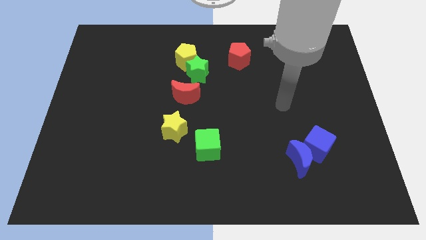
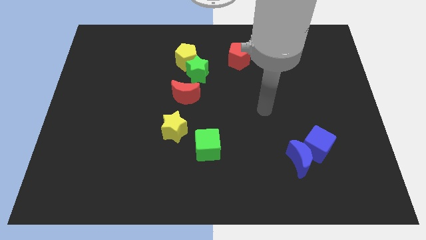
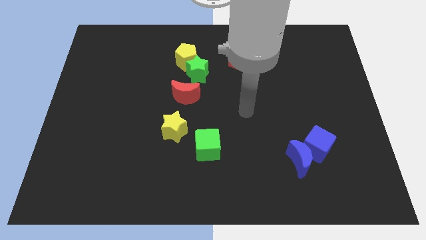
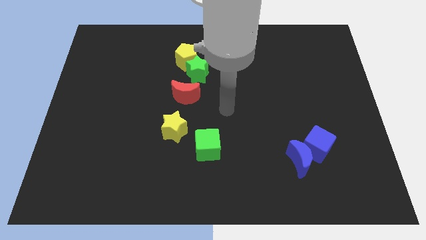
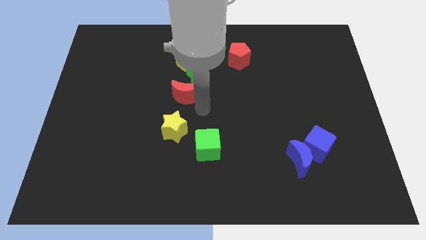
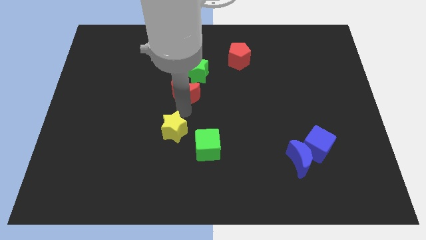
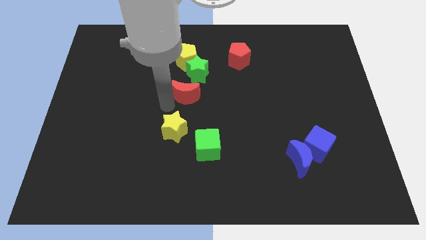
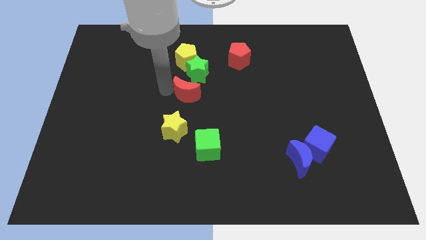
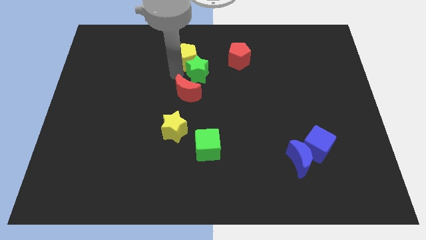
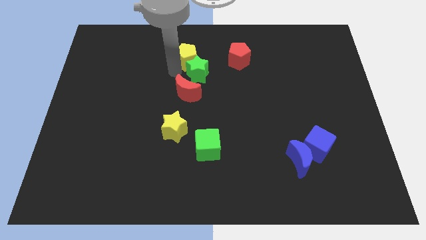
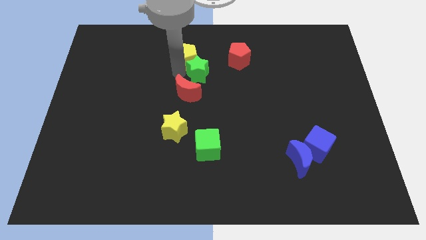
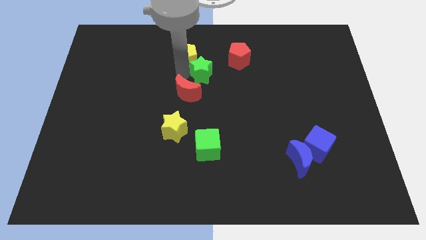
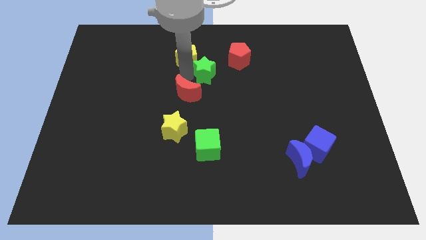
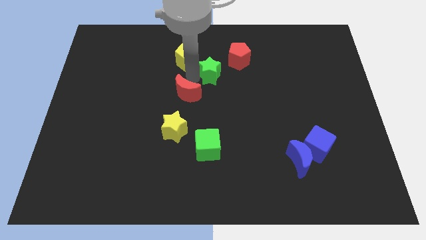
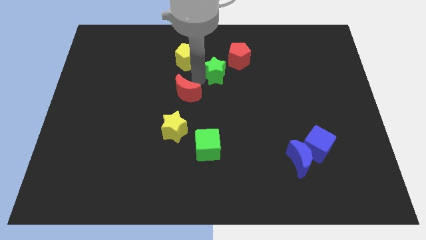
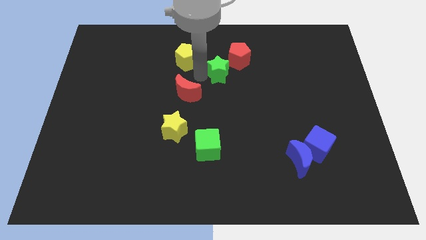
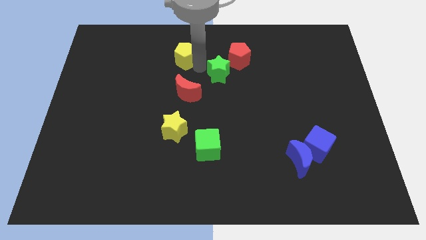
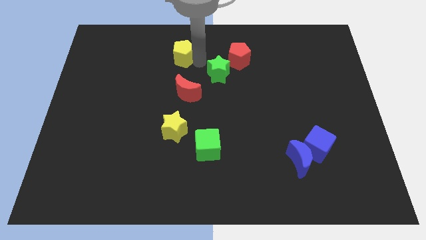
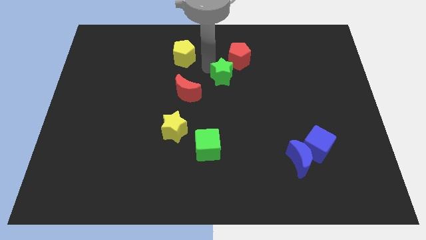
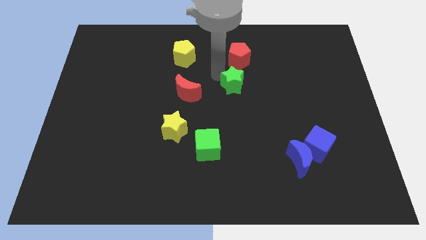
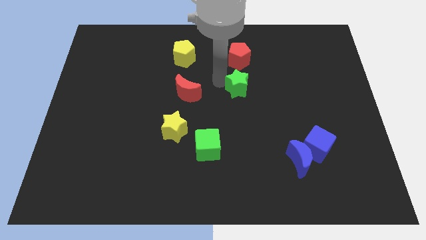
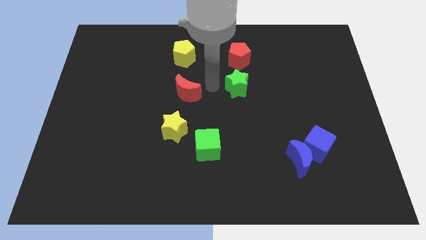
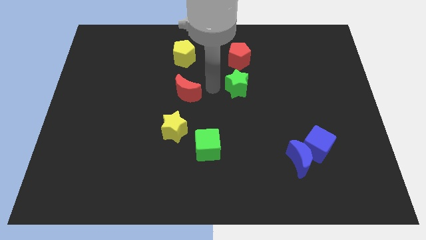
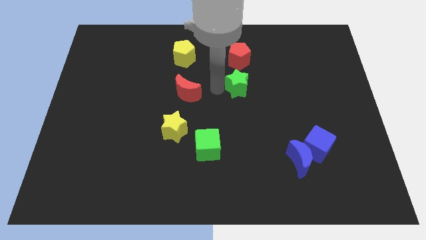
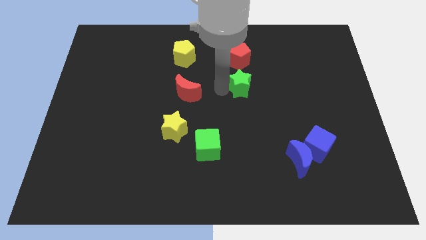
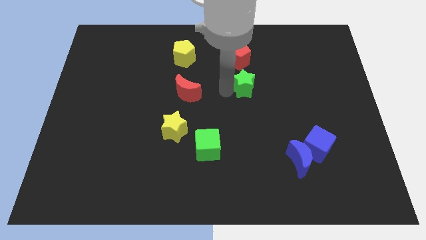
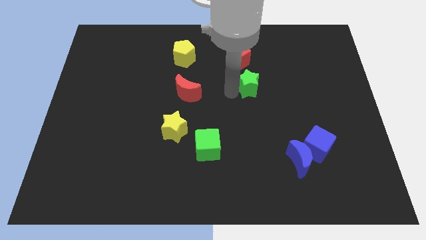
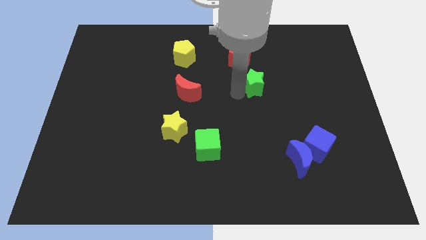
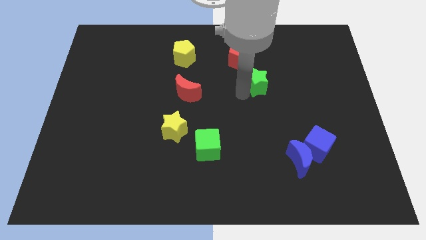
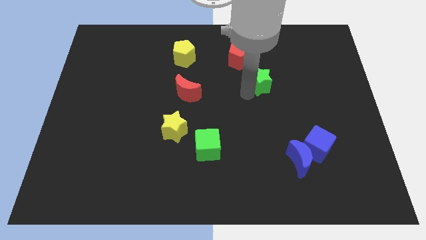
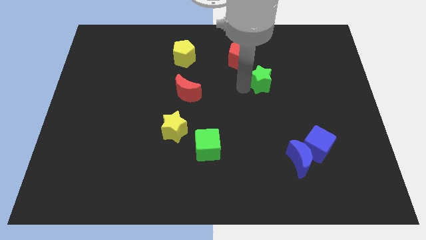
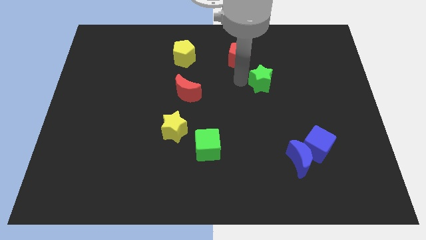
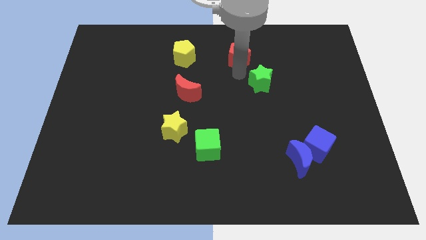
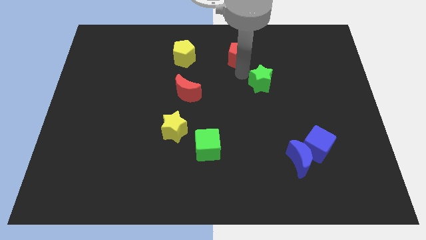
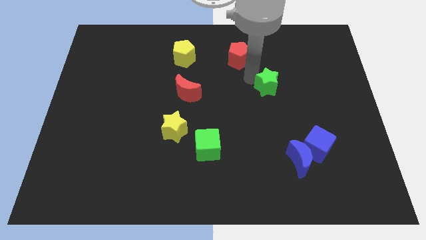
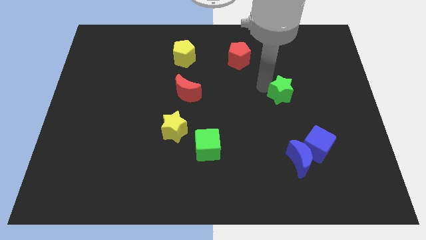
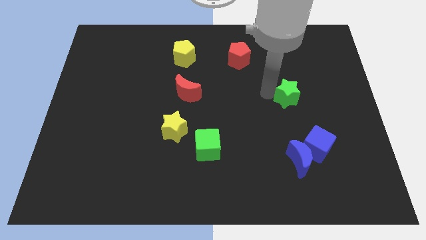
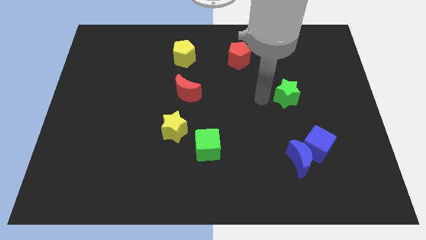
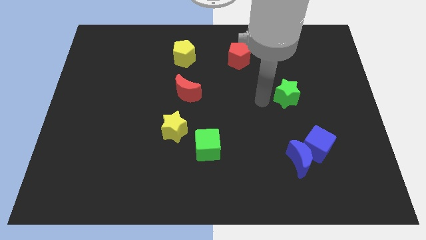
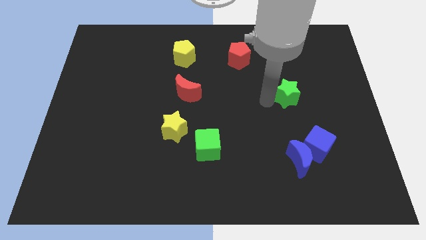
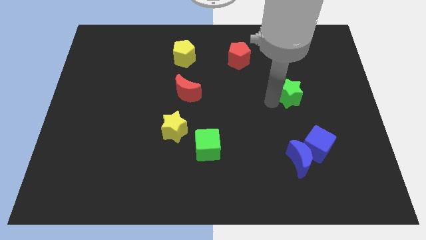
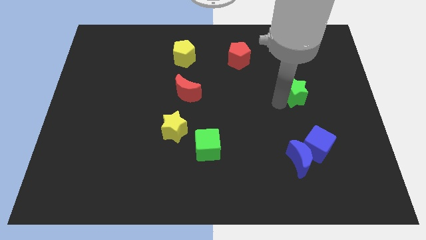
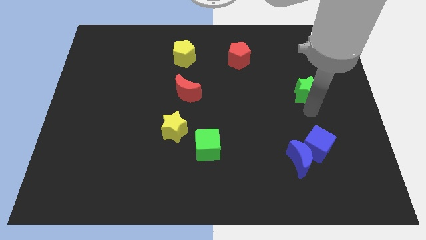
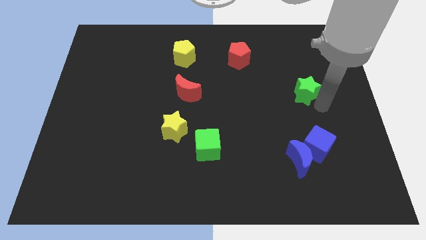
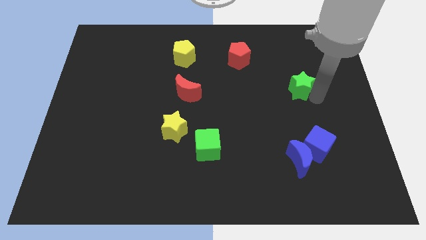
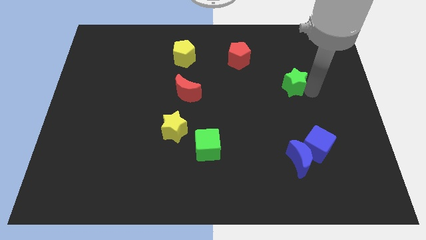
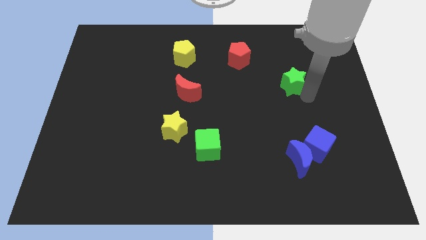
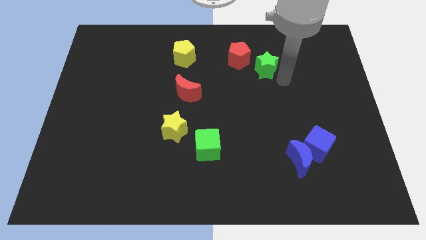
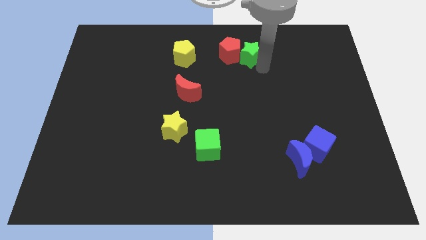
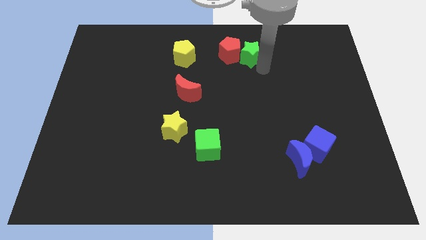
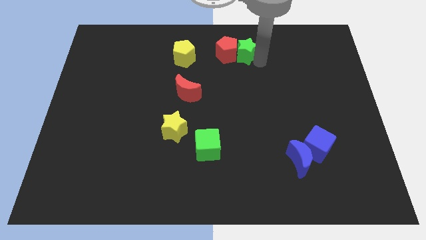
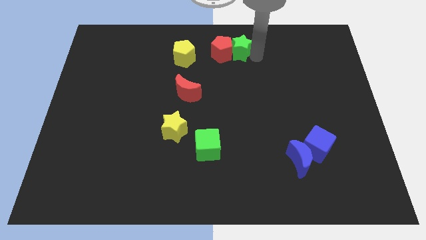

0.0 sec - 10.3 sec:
slide the green star to the towards your base

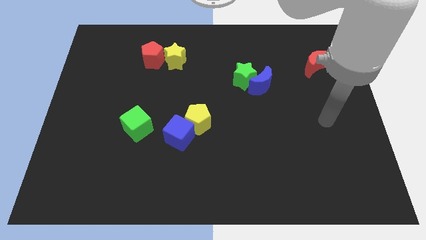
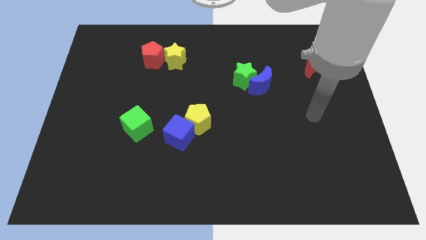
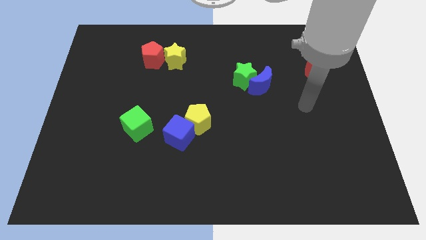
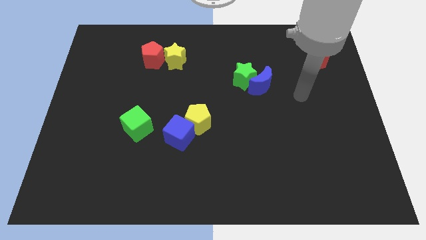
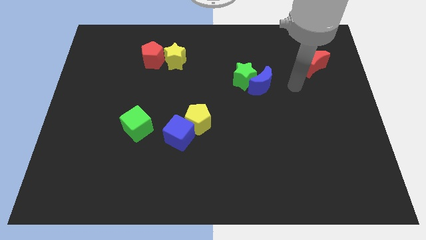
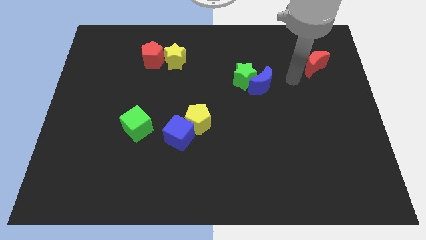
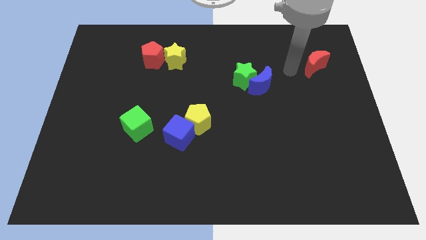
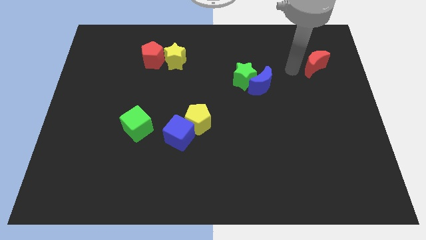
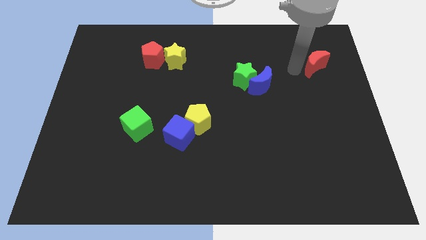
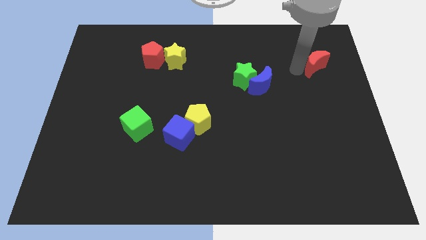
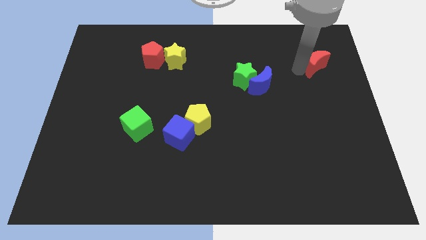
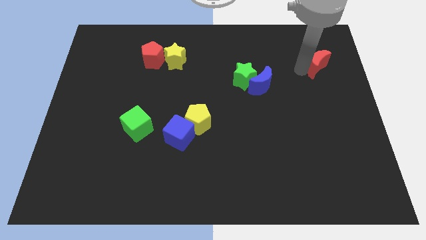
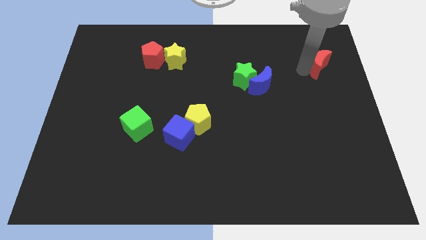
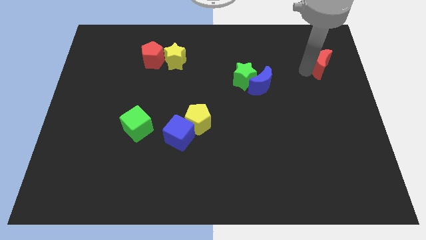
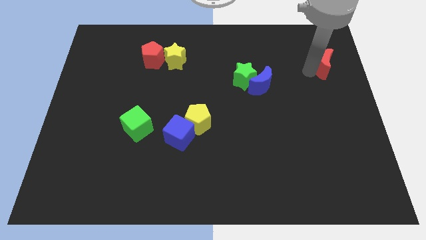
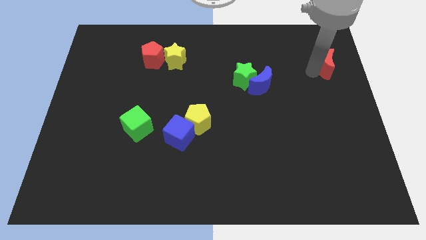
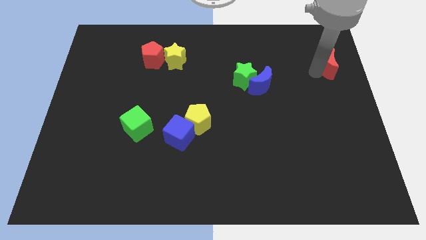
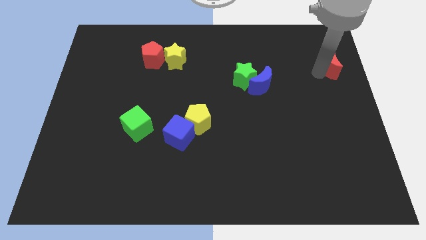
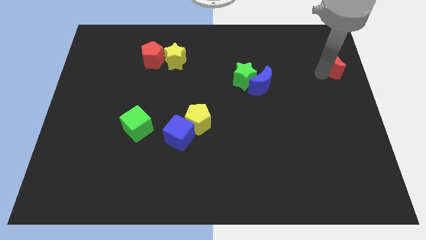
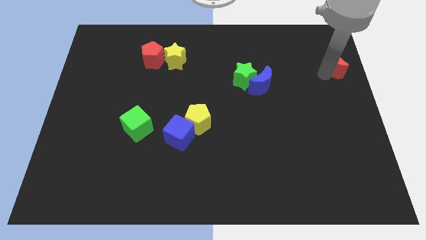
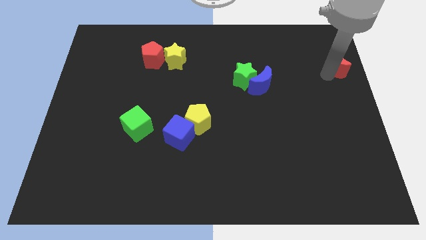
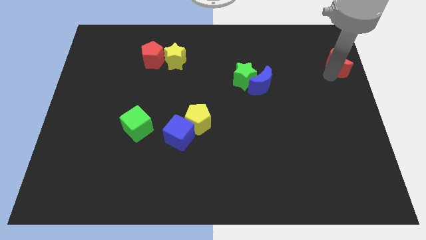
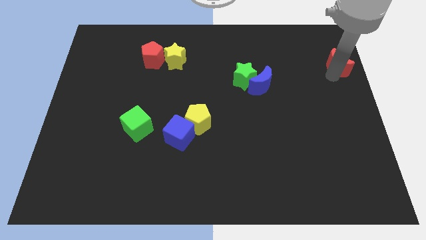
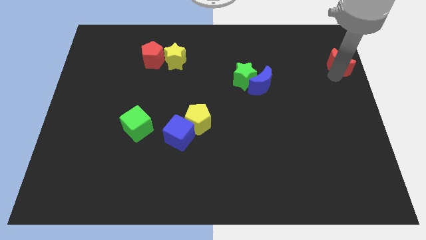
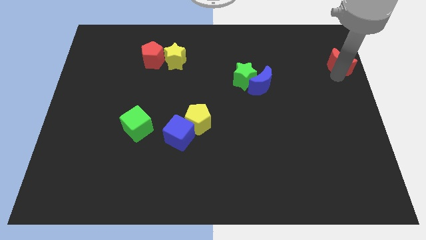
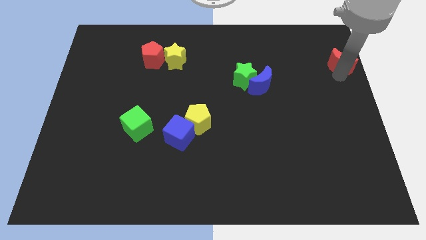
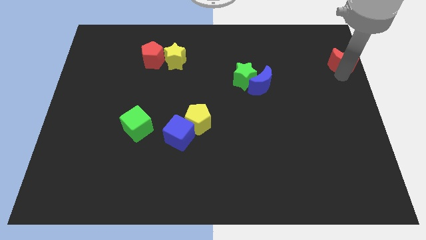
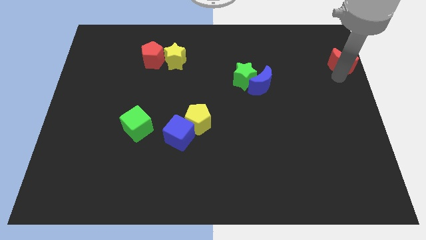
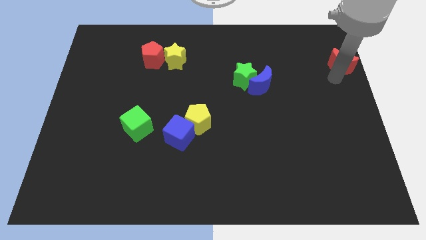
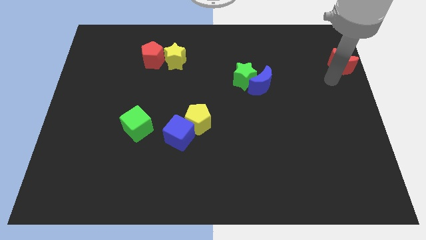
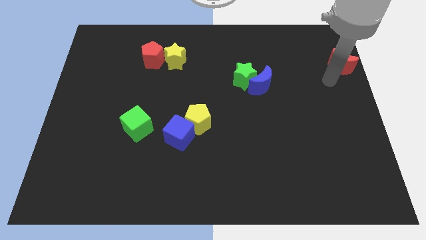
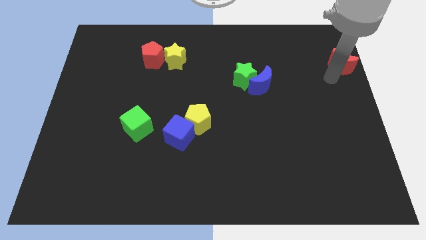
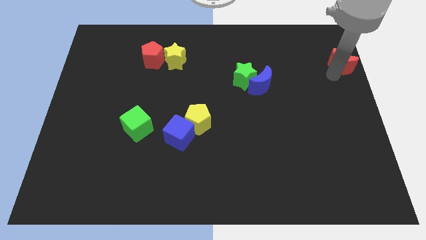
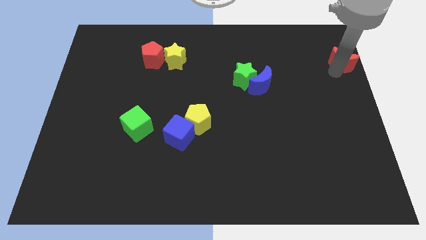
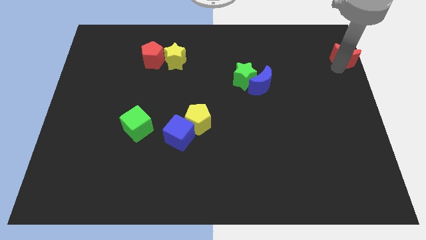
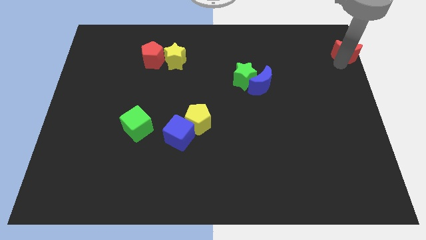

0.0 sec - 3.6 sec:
move the red moon to the top right
